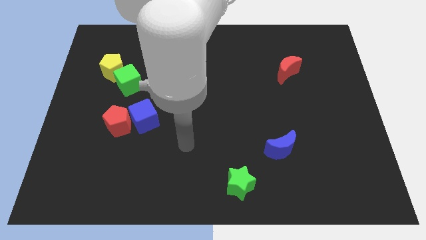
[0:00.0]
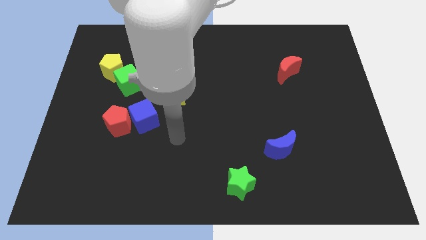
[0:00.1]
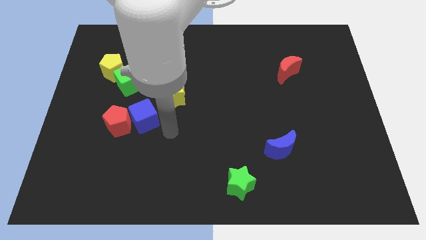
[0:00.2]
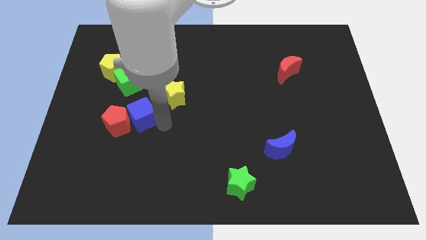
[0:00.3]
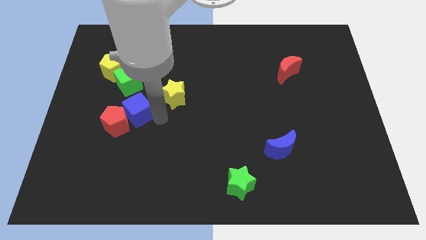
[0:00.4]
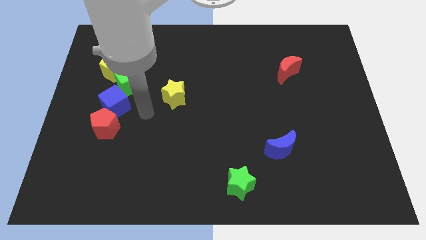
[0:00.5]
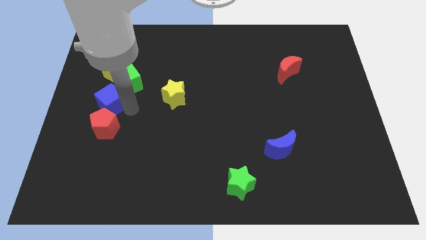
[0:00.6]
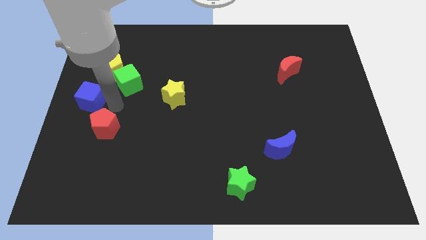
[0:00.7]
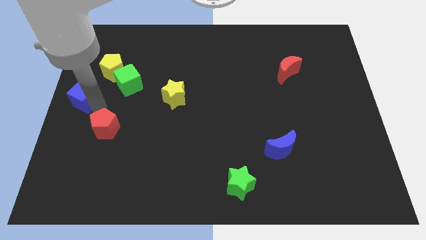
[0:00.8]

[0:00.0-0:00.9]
move the red pentagon away from the blue cube

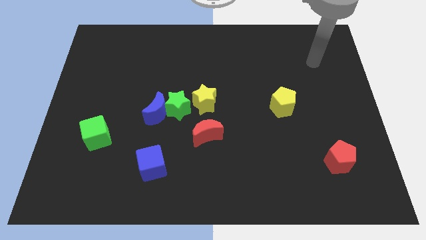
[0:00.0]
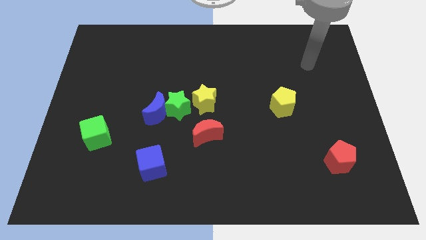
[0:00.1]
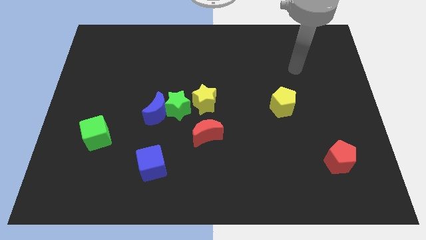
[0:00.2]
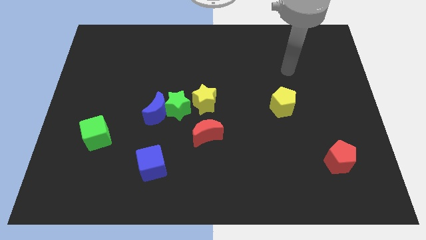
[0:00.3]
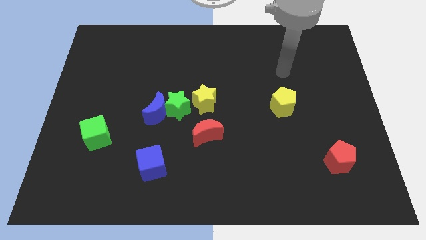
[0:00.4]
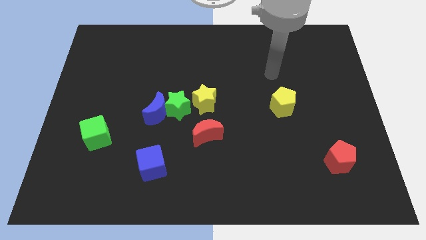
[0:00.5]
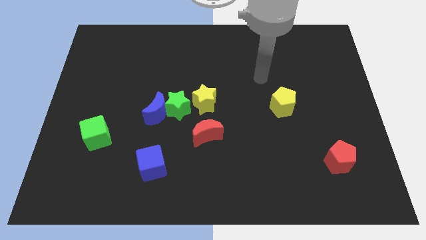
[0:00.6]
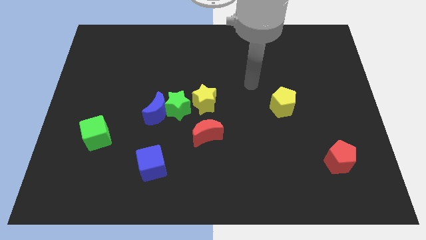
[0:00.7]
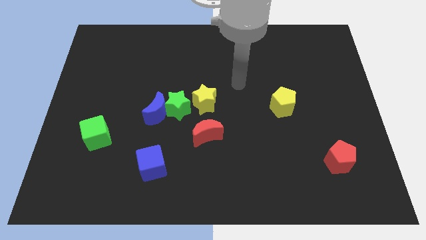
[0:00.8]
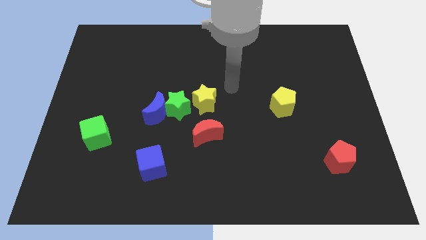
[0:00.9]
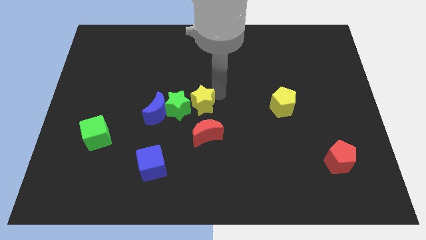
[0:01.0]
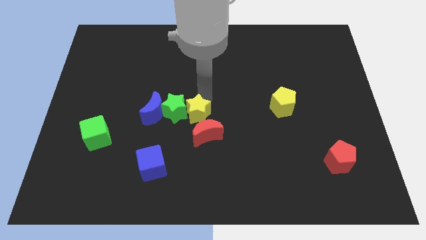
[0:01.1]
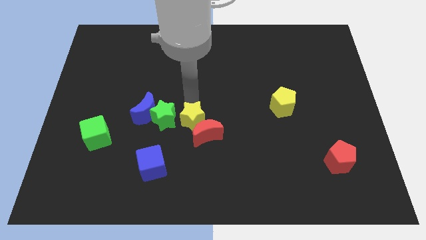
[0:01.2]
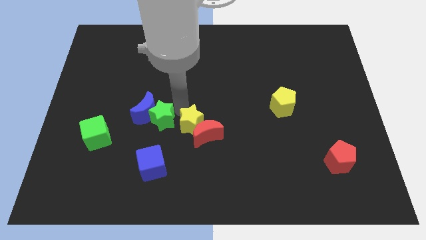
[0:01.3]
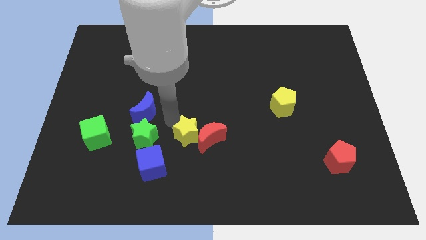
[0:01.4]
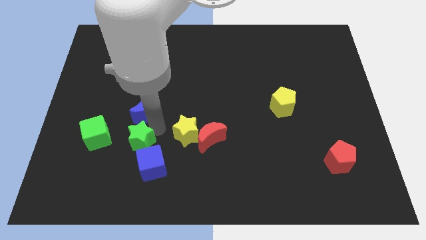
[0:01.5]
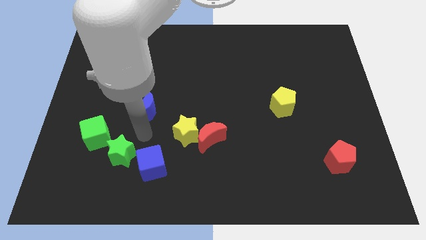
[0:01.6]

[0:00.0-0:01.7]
move the blue moon away from the green star

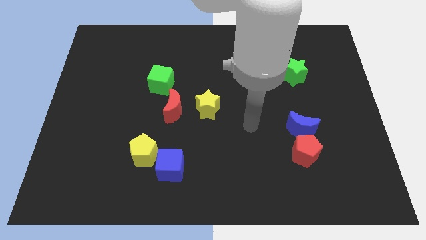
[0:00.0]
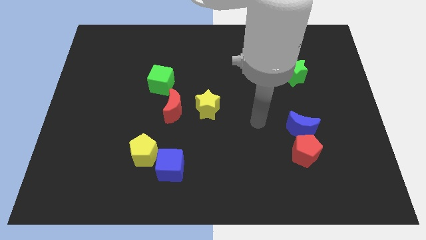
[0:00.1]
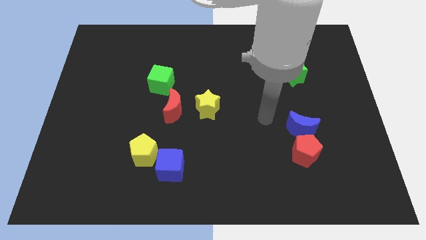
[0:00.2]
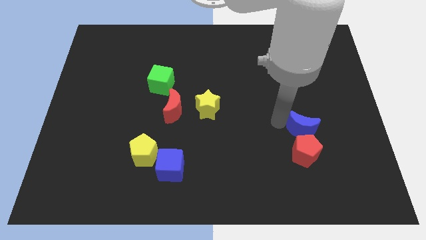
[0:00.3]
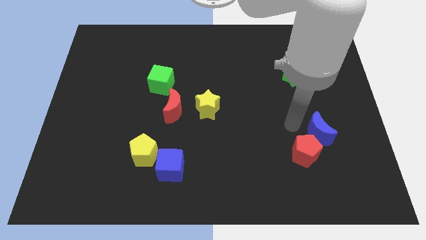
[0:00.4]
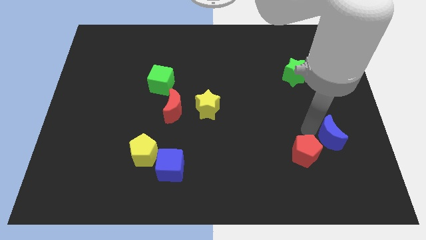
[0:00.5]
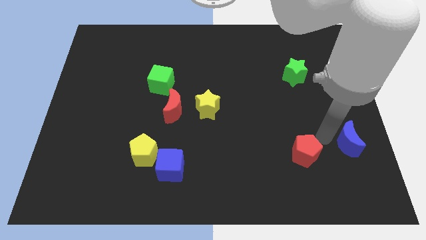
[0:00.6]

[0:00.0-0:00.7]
pull the red pentagon apart from the blue moon

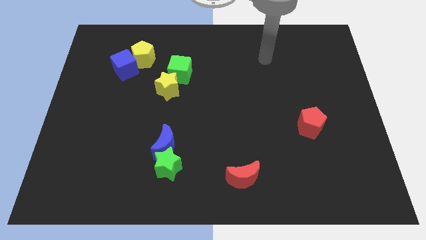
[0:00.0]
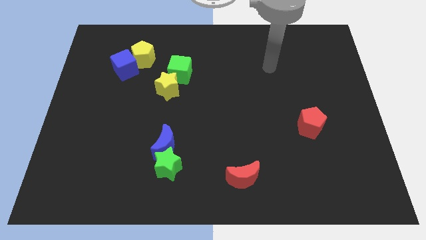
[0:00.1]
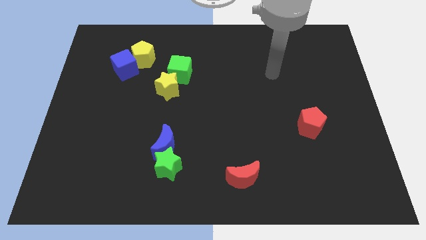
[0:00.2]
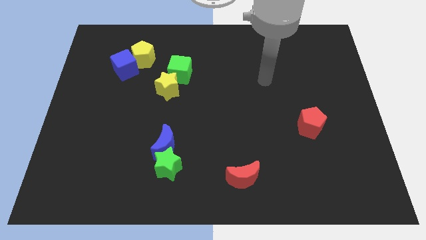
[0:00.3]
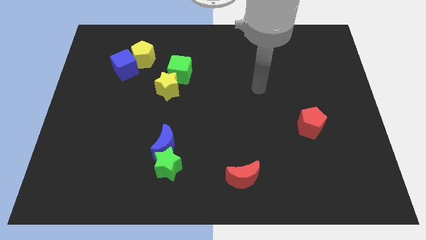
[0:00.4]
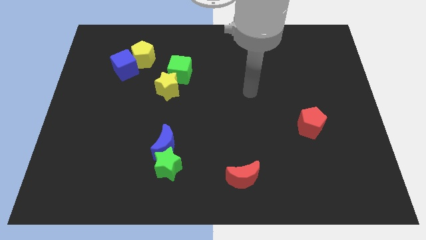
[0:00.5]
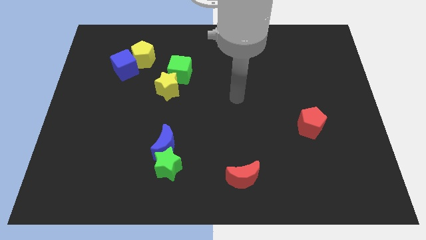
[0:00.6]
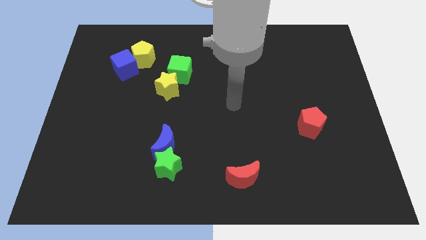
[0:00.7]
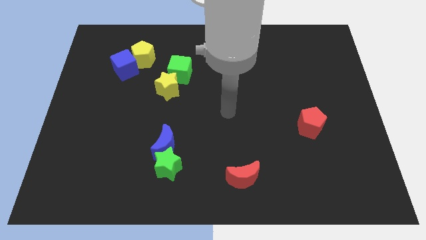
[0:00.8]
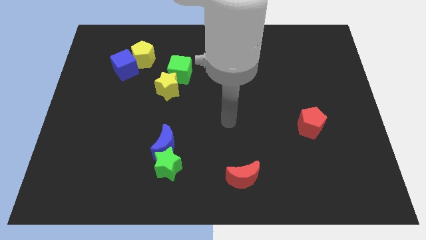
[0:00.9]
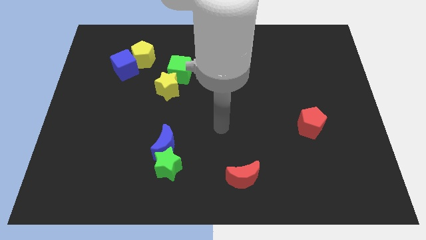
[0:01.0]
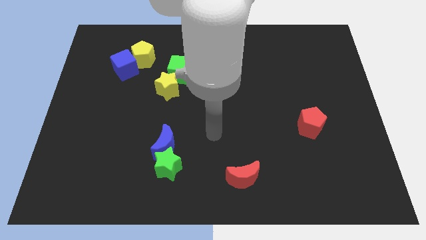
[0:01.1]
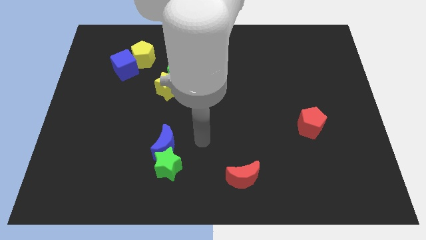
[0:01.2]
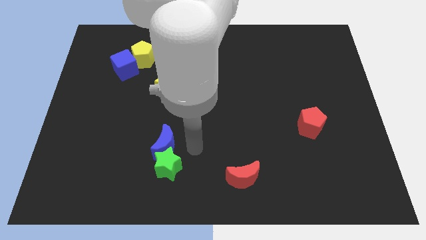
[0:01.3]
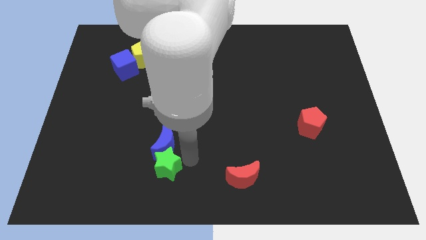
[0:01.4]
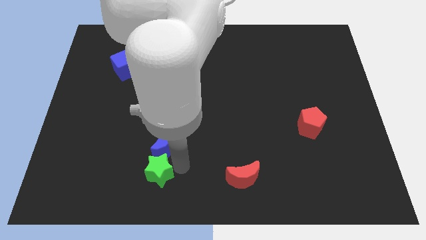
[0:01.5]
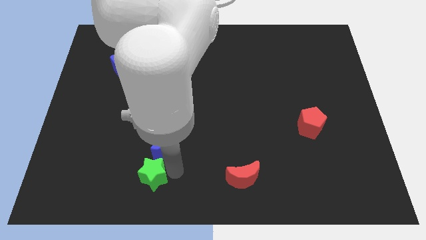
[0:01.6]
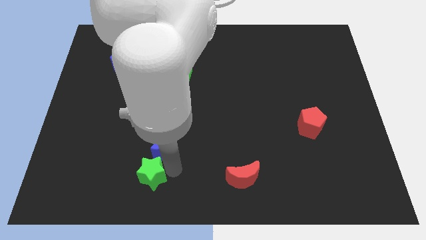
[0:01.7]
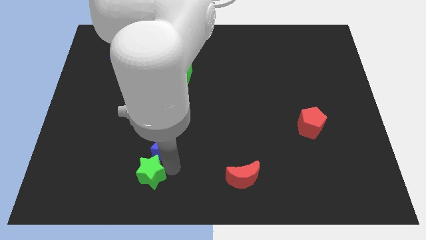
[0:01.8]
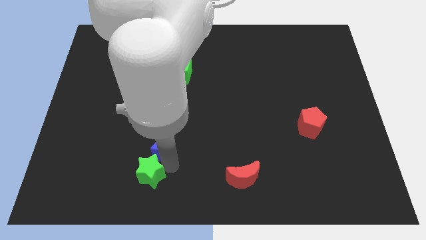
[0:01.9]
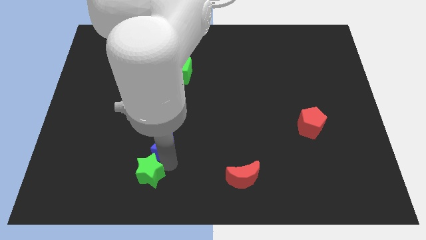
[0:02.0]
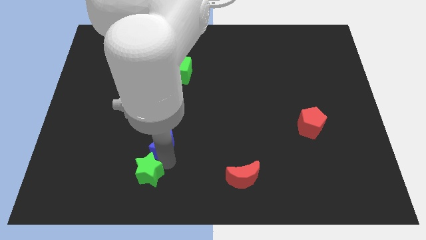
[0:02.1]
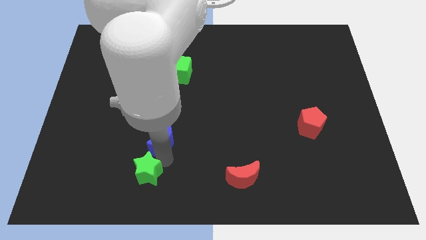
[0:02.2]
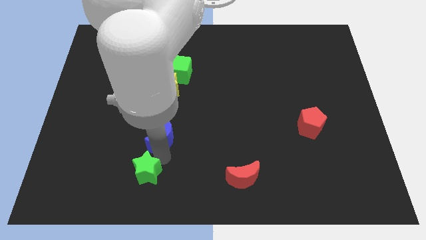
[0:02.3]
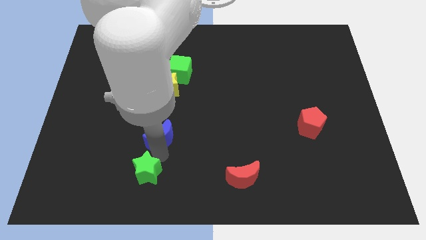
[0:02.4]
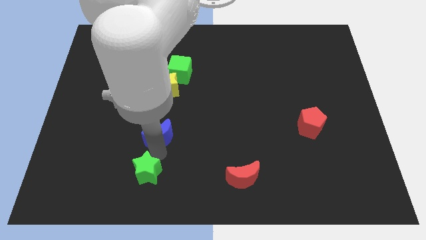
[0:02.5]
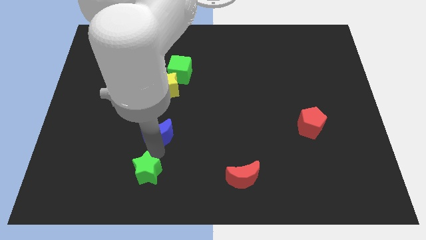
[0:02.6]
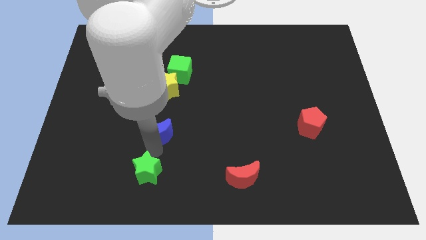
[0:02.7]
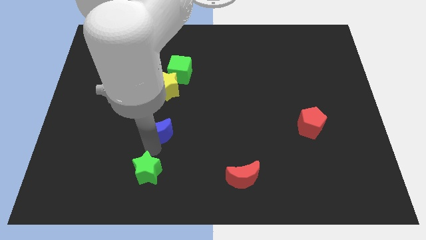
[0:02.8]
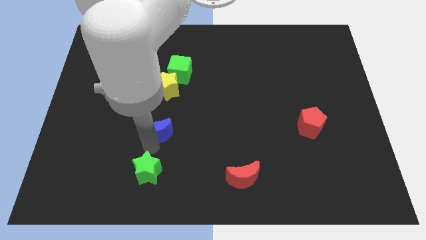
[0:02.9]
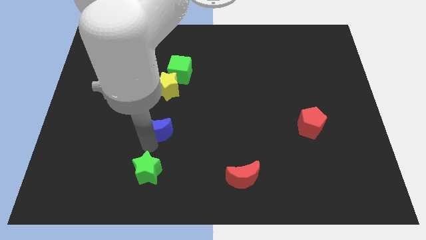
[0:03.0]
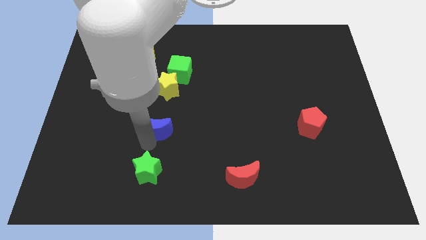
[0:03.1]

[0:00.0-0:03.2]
separate the blue moon from the green star

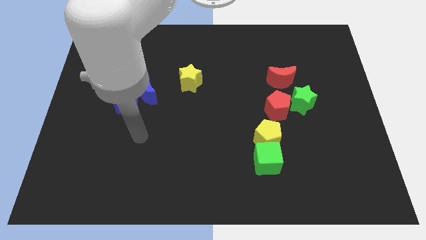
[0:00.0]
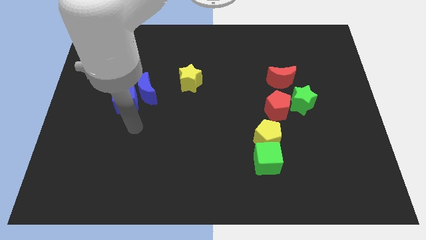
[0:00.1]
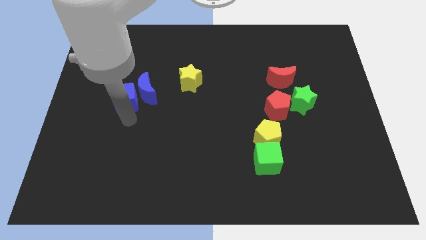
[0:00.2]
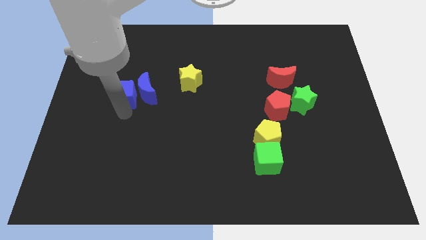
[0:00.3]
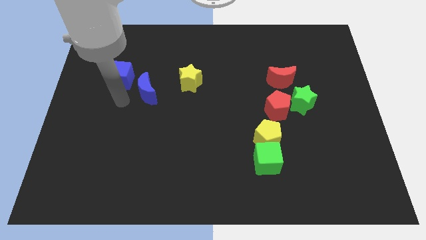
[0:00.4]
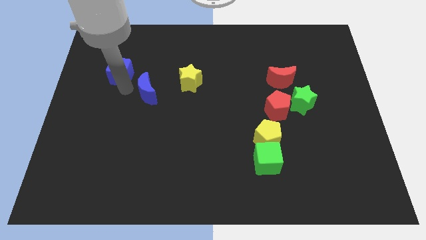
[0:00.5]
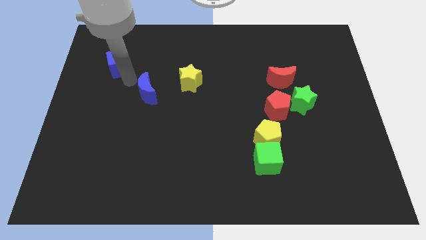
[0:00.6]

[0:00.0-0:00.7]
separate the blue moon from the blue cube

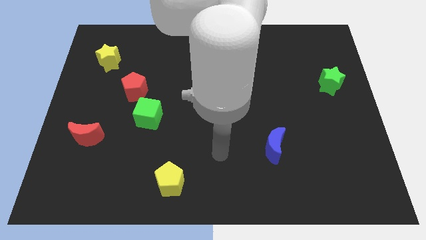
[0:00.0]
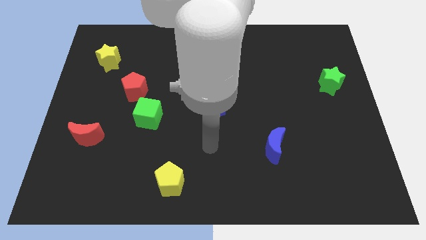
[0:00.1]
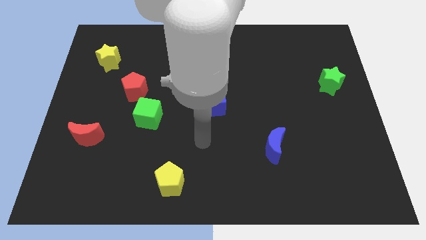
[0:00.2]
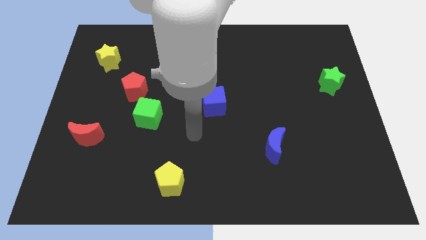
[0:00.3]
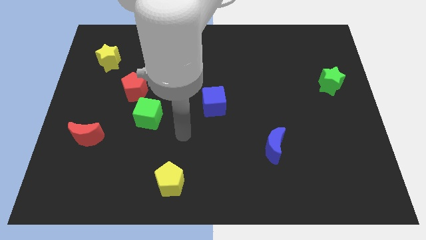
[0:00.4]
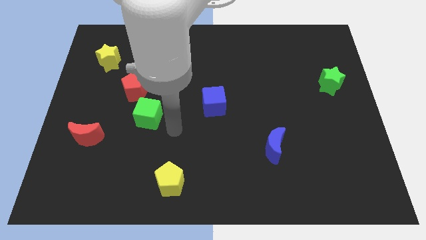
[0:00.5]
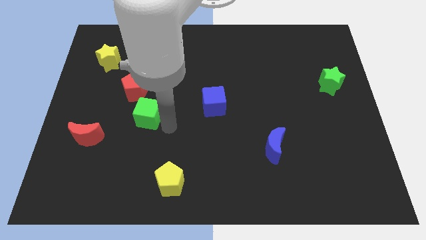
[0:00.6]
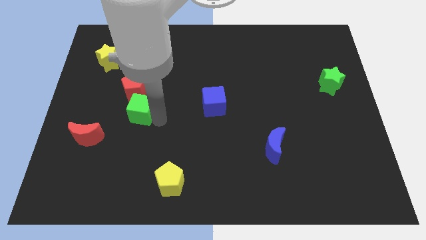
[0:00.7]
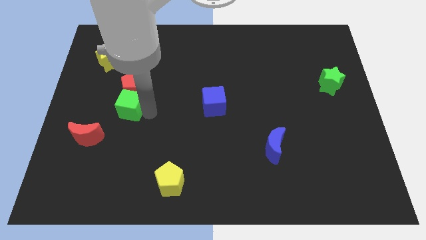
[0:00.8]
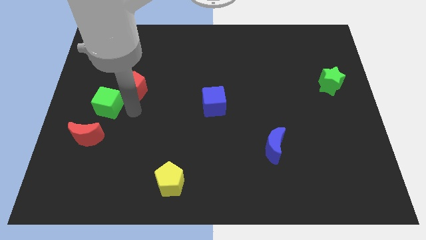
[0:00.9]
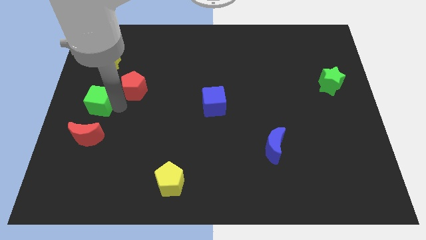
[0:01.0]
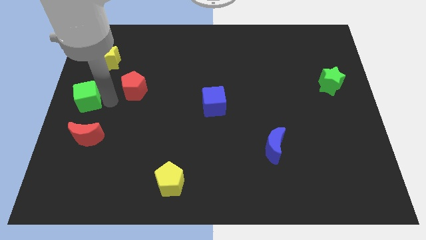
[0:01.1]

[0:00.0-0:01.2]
separate the red pentagon from the green cube

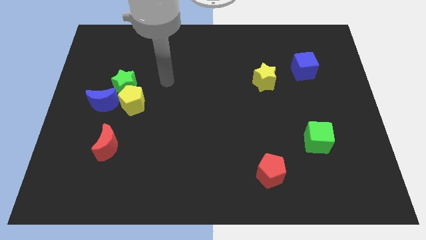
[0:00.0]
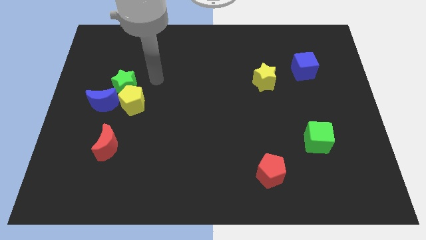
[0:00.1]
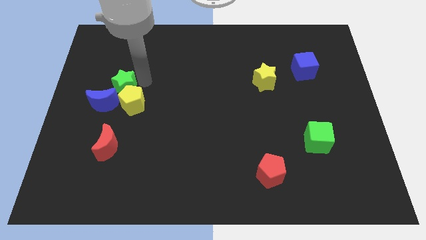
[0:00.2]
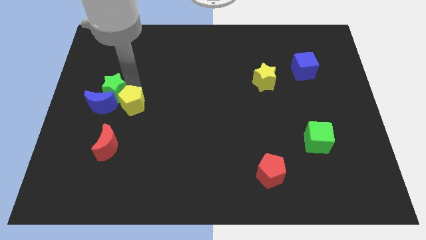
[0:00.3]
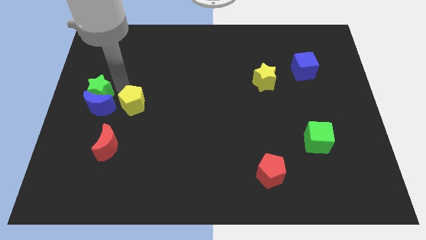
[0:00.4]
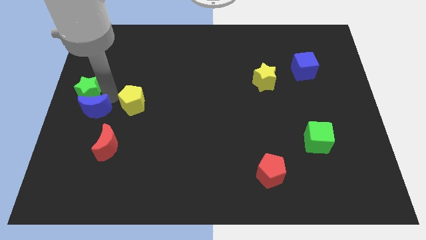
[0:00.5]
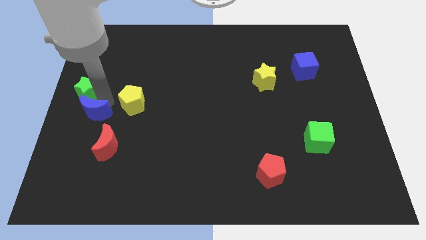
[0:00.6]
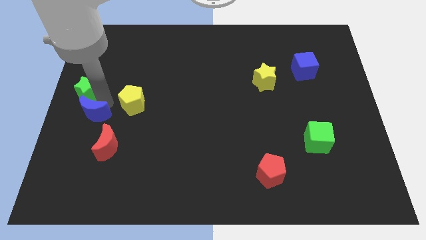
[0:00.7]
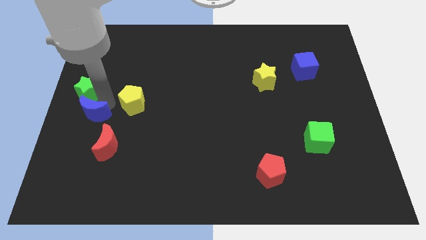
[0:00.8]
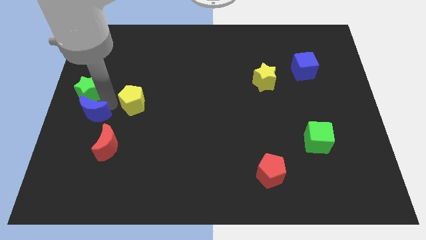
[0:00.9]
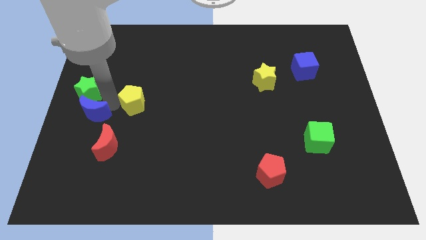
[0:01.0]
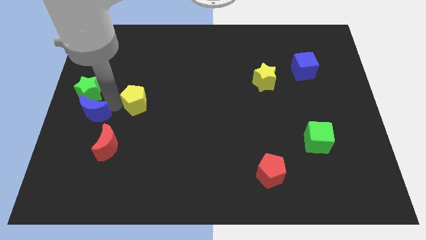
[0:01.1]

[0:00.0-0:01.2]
separate the yellow pentagon from the green star and blue moon
